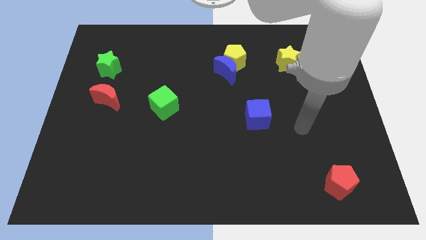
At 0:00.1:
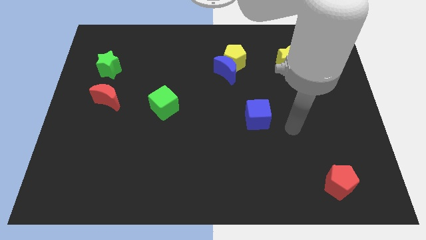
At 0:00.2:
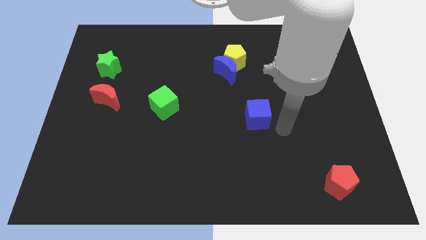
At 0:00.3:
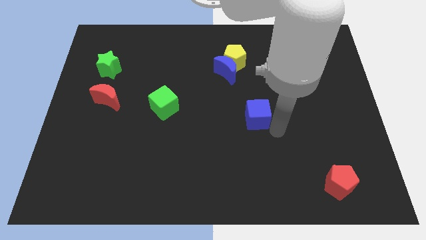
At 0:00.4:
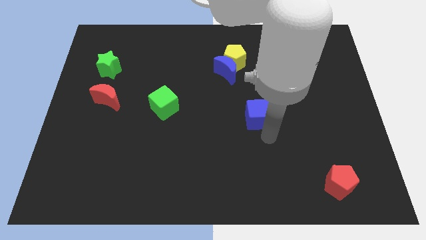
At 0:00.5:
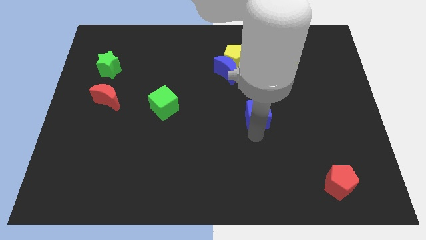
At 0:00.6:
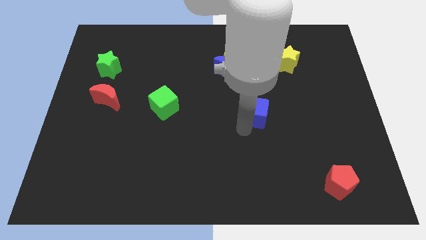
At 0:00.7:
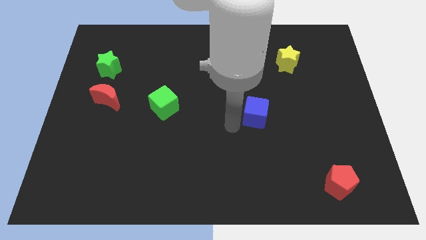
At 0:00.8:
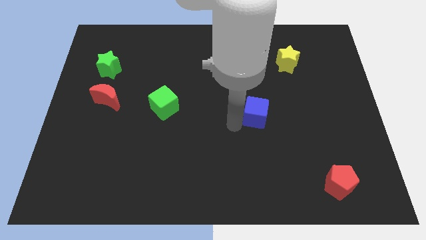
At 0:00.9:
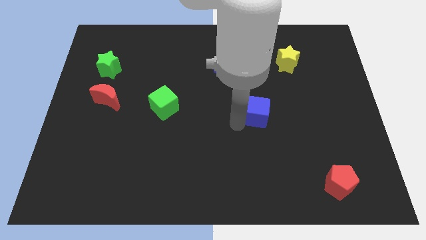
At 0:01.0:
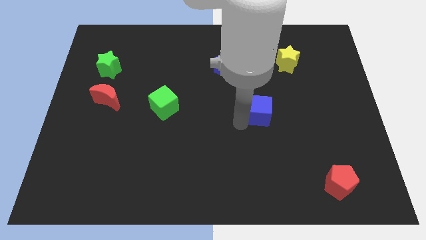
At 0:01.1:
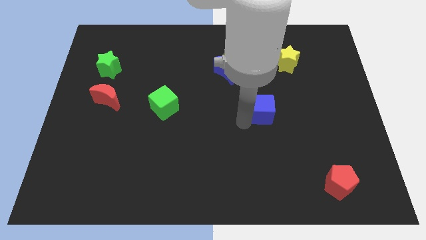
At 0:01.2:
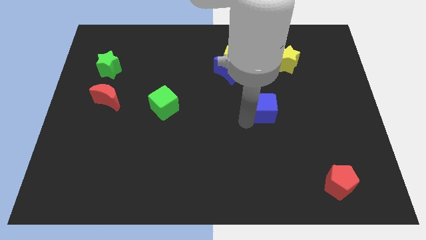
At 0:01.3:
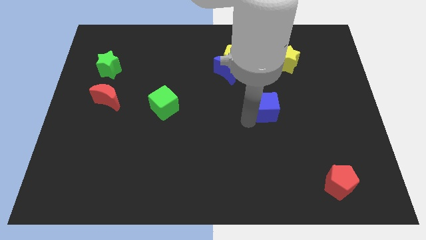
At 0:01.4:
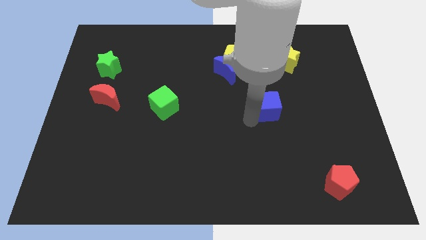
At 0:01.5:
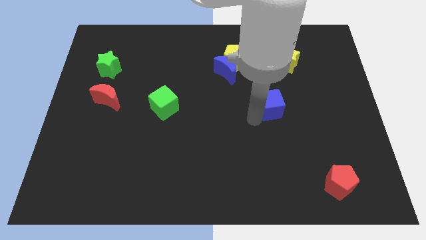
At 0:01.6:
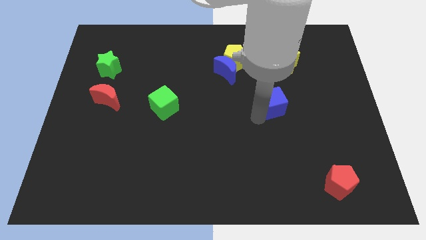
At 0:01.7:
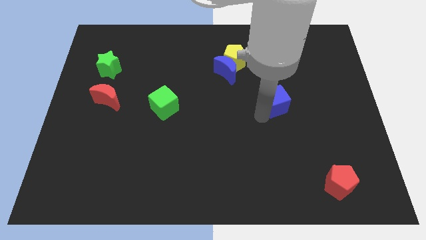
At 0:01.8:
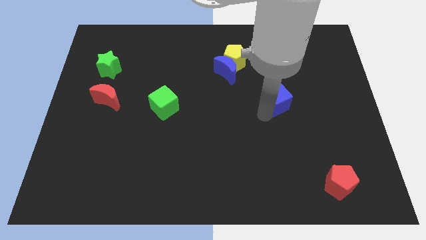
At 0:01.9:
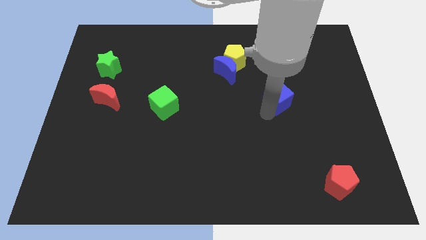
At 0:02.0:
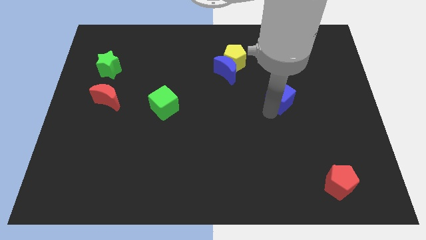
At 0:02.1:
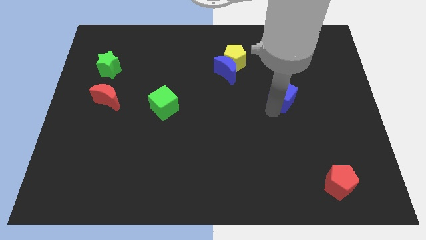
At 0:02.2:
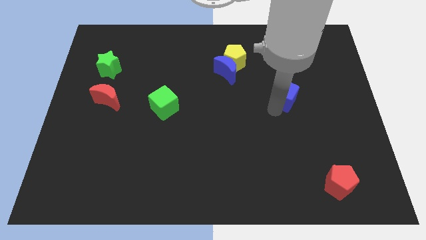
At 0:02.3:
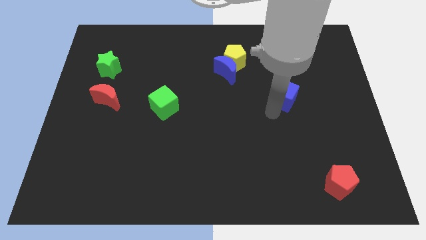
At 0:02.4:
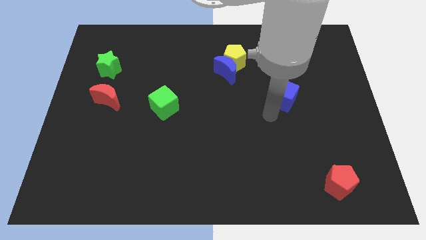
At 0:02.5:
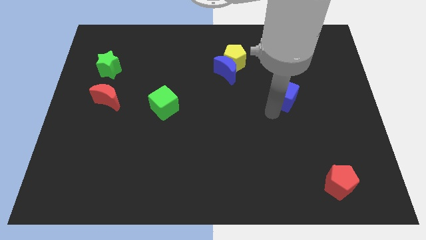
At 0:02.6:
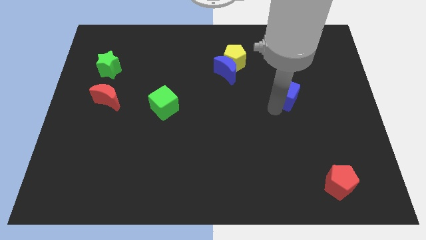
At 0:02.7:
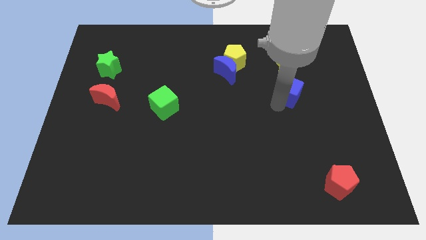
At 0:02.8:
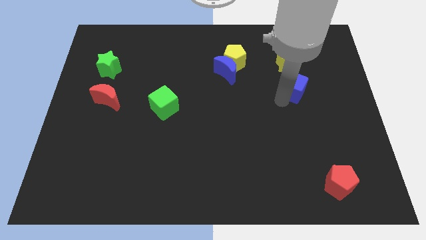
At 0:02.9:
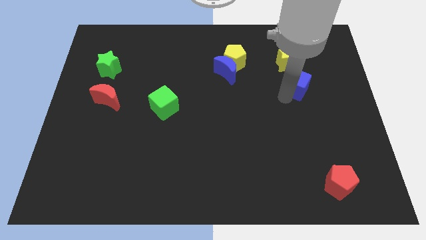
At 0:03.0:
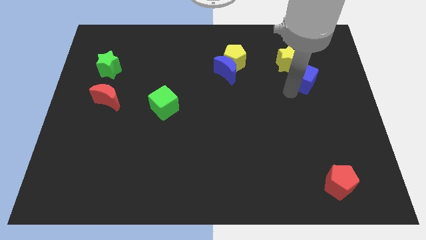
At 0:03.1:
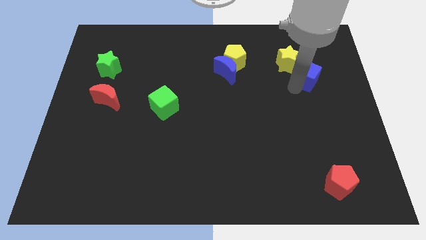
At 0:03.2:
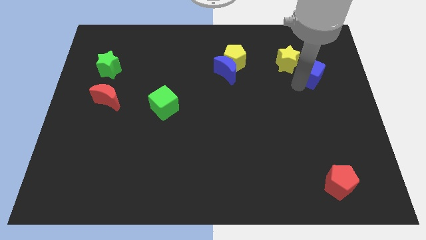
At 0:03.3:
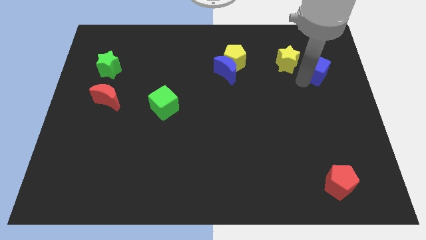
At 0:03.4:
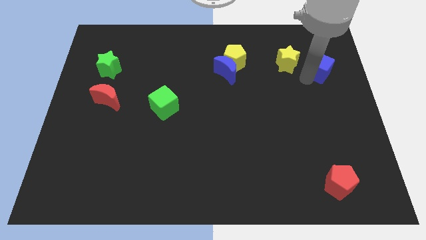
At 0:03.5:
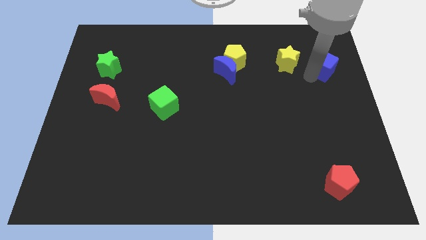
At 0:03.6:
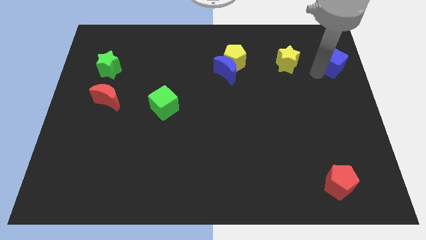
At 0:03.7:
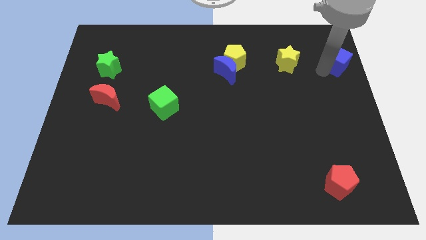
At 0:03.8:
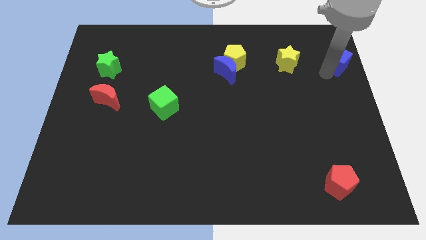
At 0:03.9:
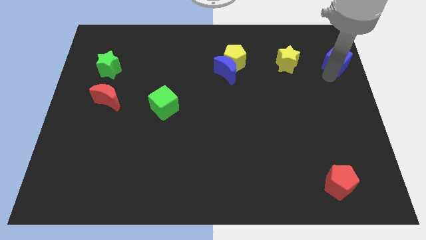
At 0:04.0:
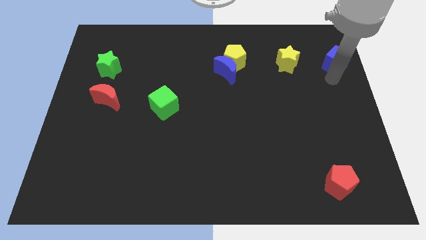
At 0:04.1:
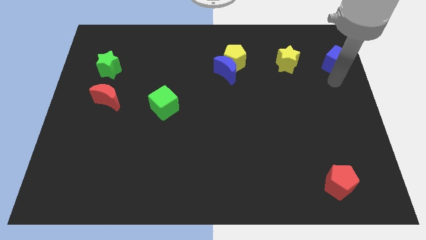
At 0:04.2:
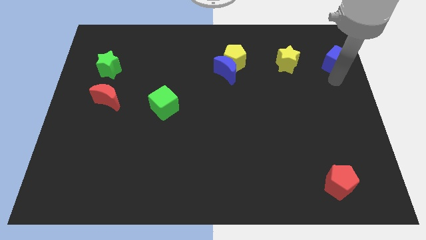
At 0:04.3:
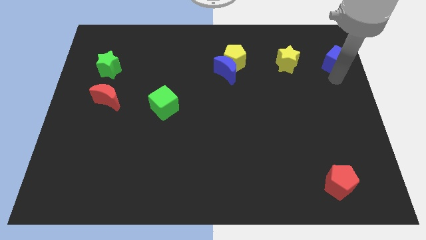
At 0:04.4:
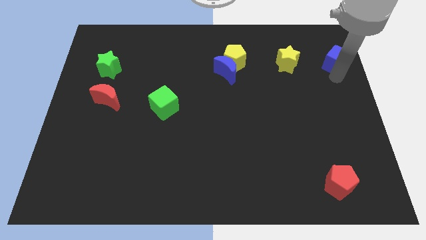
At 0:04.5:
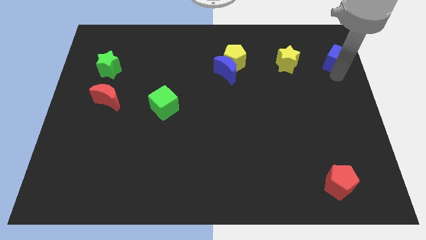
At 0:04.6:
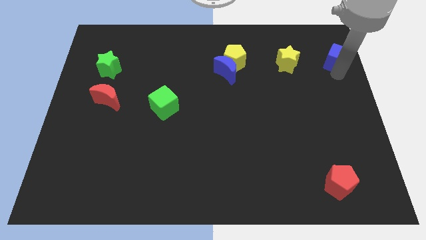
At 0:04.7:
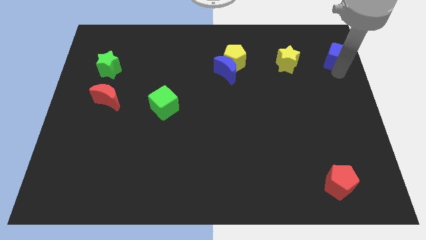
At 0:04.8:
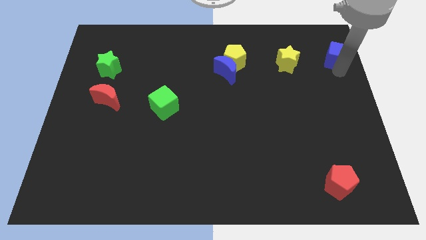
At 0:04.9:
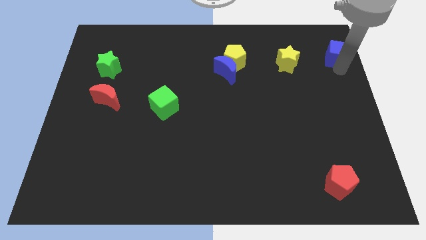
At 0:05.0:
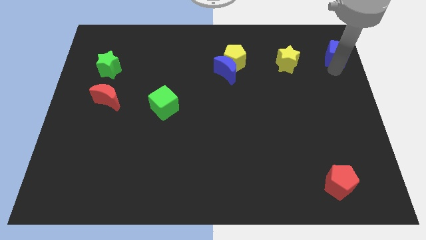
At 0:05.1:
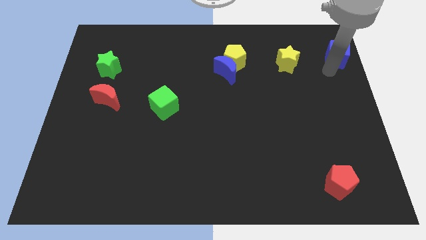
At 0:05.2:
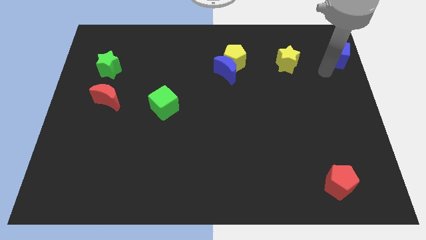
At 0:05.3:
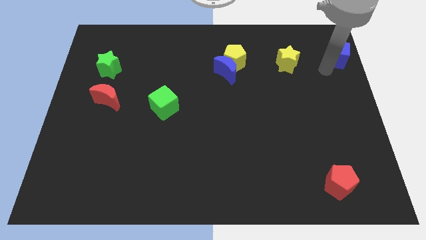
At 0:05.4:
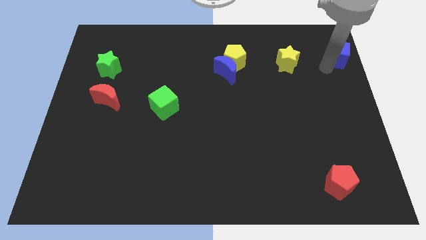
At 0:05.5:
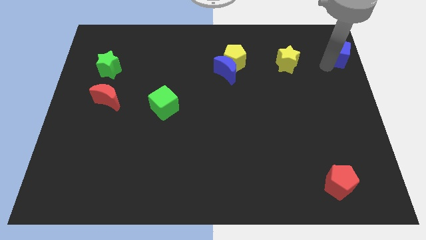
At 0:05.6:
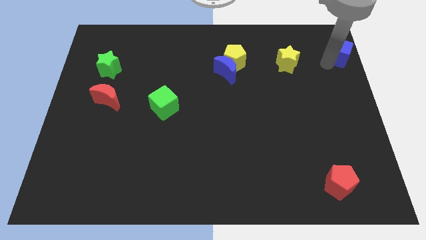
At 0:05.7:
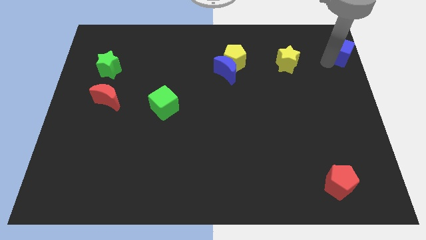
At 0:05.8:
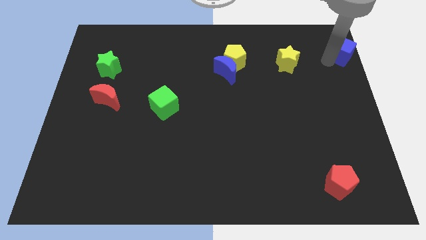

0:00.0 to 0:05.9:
push the blue cube to the top right of the board

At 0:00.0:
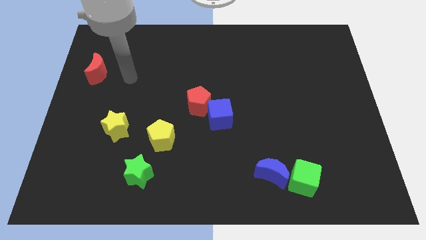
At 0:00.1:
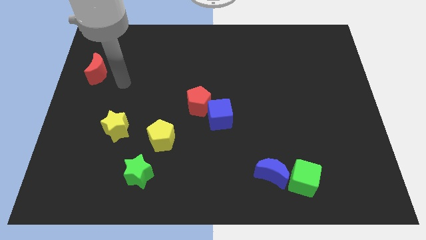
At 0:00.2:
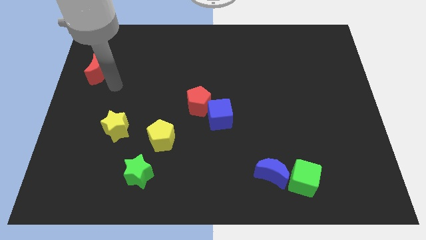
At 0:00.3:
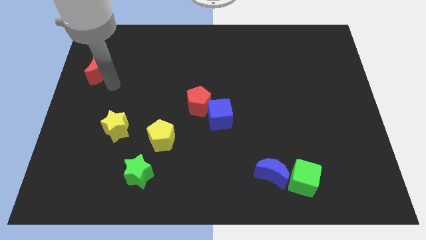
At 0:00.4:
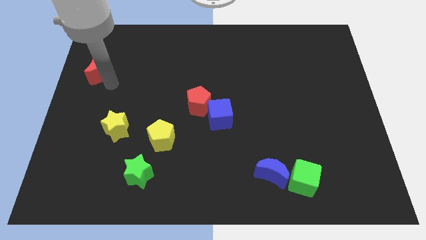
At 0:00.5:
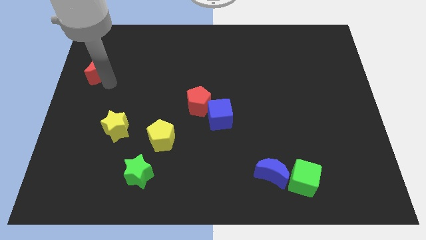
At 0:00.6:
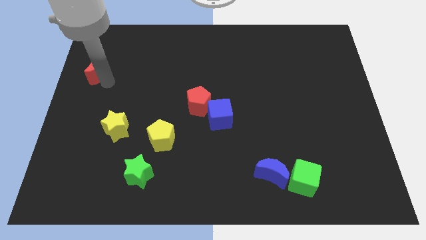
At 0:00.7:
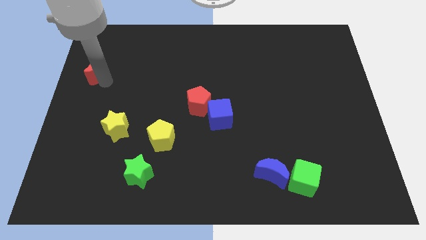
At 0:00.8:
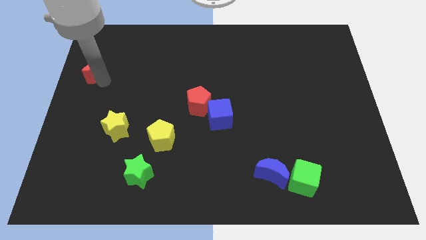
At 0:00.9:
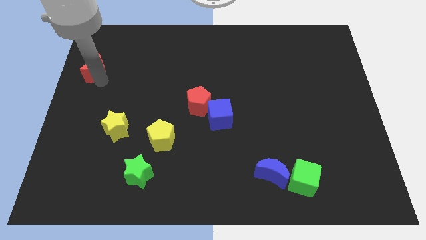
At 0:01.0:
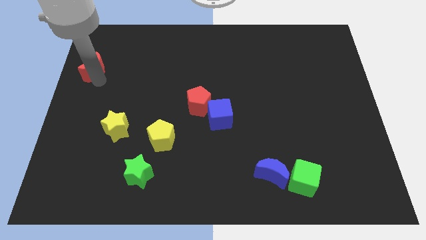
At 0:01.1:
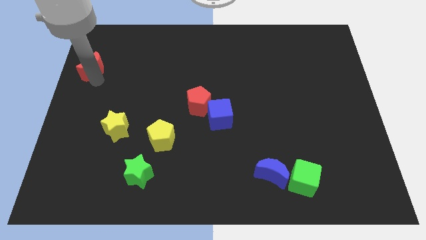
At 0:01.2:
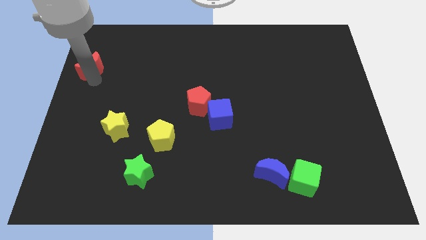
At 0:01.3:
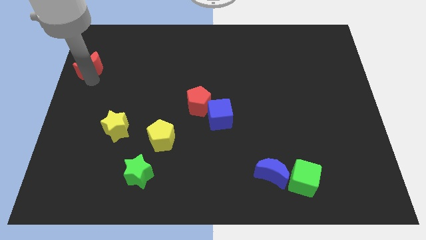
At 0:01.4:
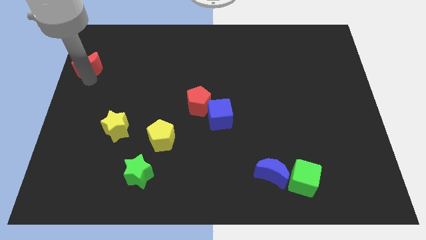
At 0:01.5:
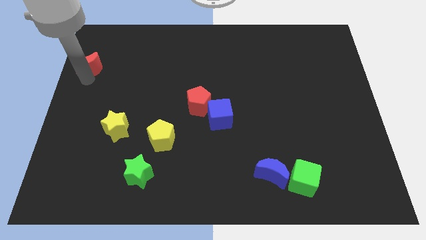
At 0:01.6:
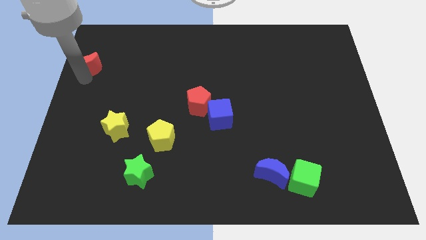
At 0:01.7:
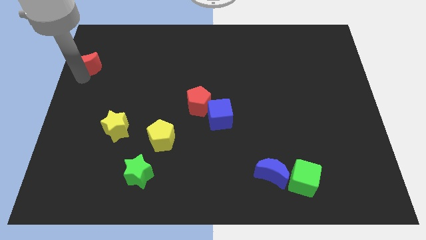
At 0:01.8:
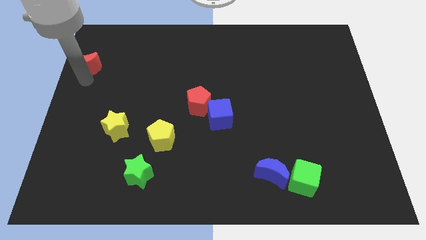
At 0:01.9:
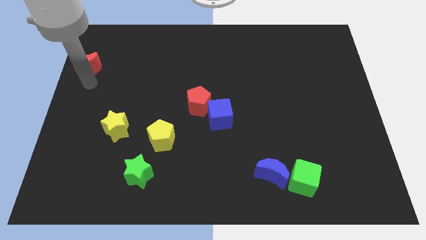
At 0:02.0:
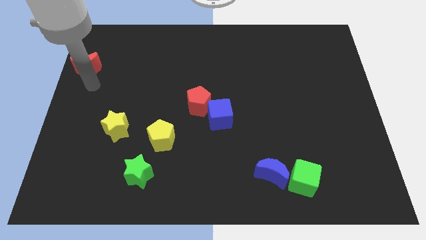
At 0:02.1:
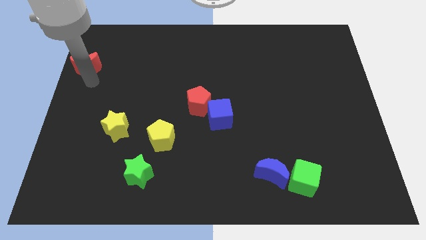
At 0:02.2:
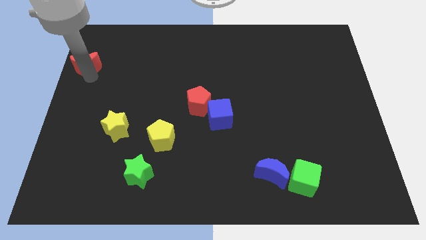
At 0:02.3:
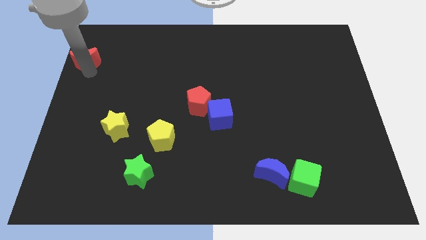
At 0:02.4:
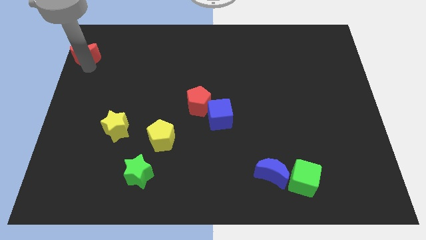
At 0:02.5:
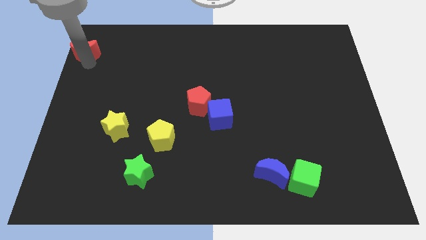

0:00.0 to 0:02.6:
put the red moon to the top left of the board
